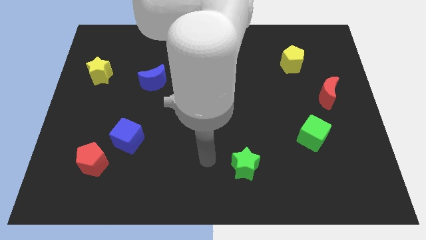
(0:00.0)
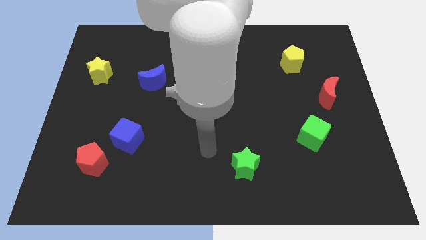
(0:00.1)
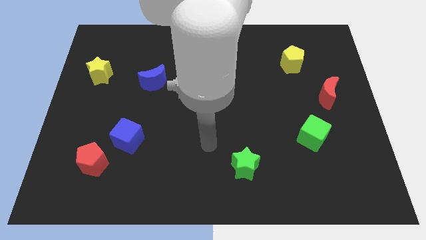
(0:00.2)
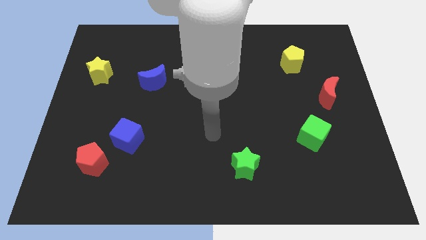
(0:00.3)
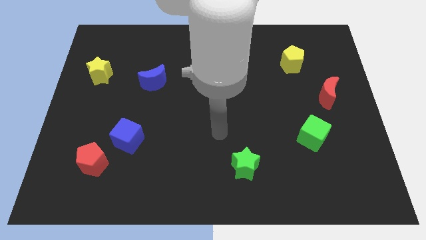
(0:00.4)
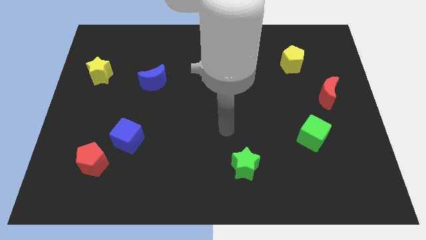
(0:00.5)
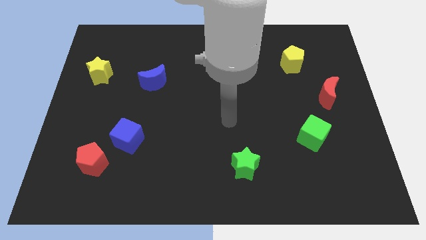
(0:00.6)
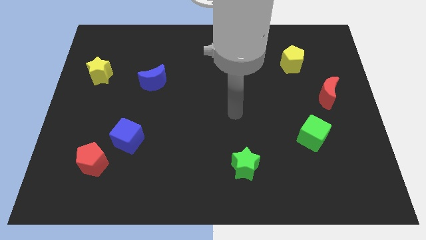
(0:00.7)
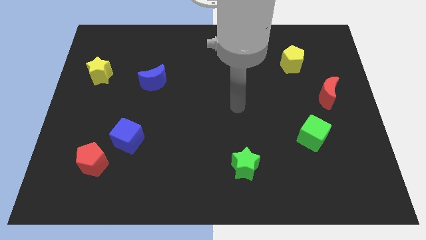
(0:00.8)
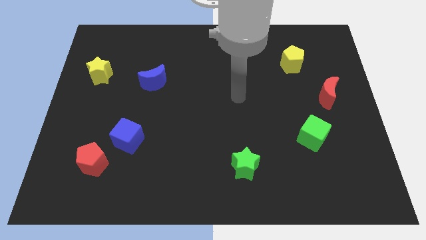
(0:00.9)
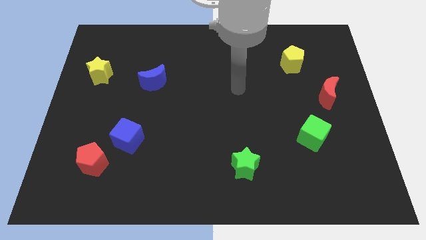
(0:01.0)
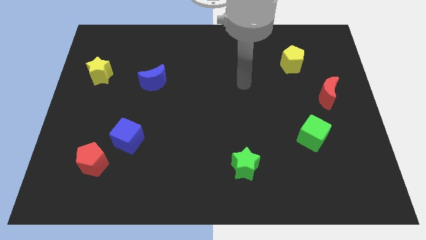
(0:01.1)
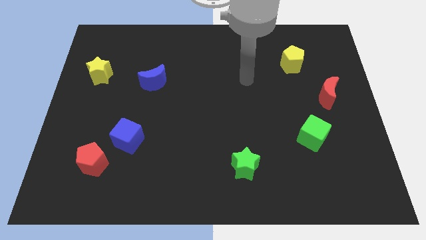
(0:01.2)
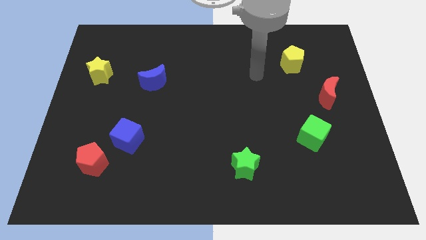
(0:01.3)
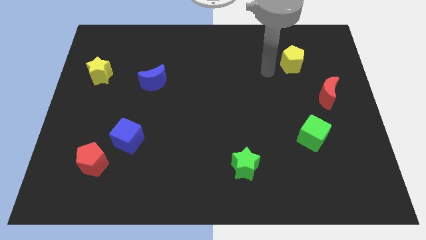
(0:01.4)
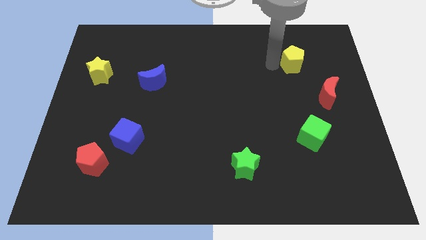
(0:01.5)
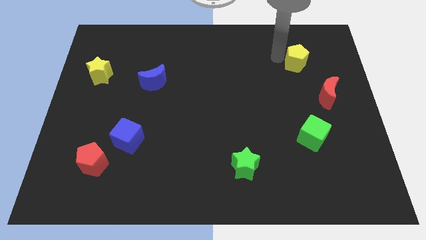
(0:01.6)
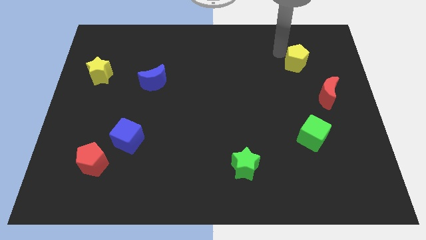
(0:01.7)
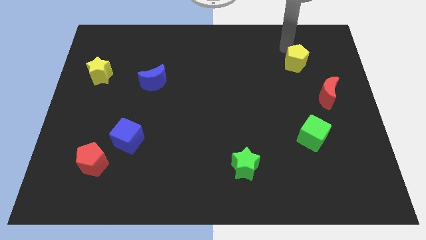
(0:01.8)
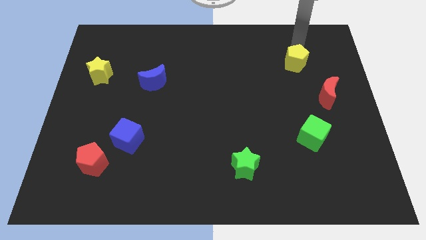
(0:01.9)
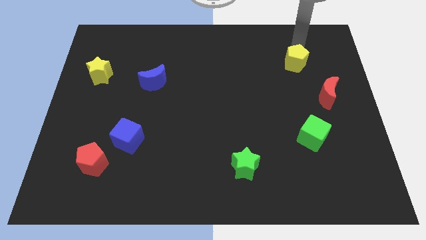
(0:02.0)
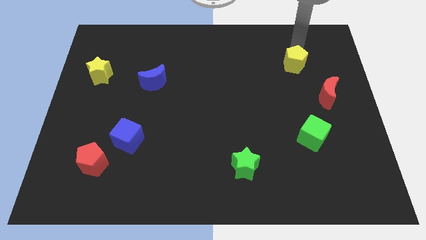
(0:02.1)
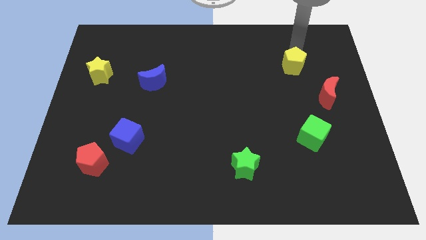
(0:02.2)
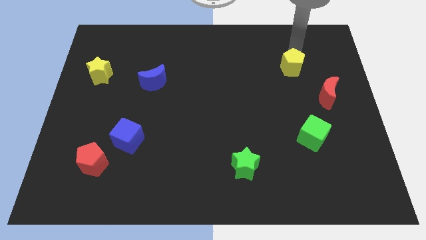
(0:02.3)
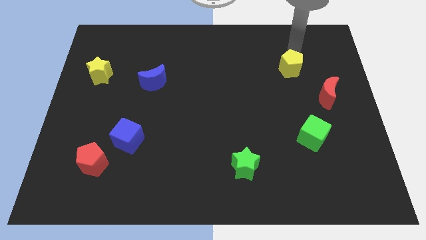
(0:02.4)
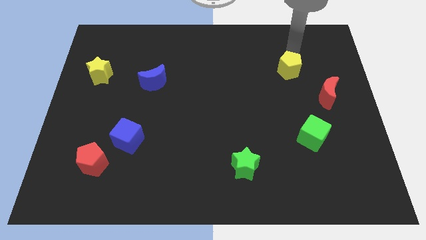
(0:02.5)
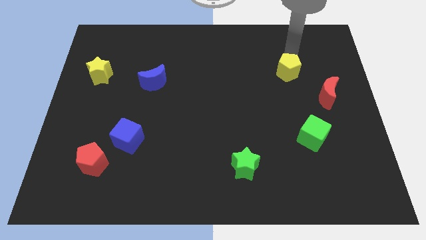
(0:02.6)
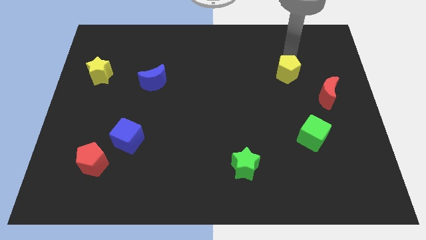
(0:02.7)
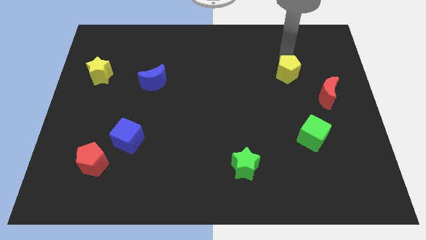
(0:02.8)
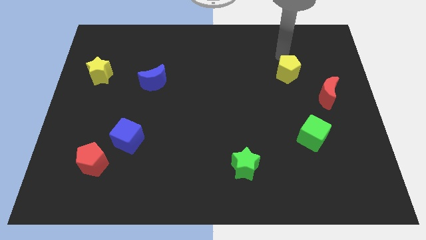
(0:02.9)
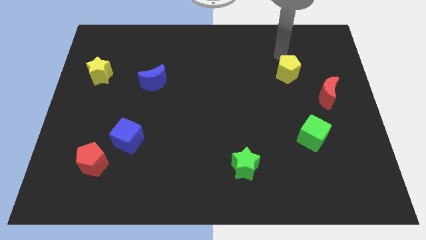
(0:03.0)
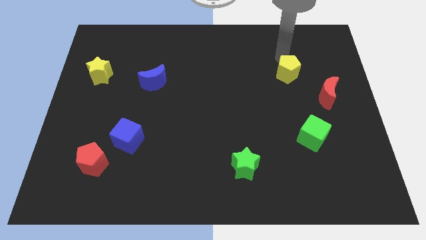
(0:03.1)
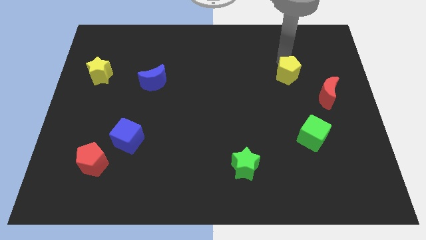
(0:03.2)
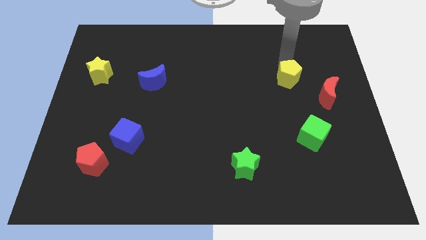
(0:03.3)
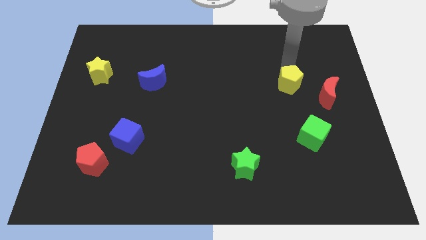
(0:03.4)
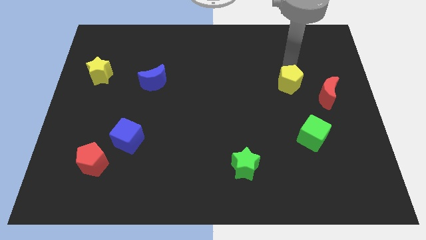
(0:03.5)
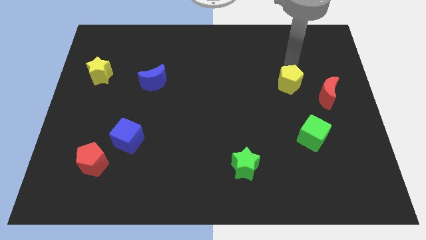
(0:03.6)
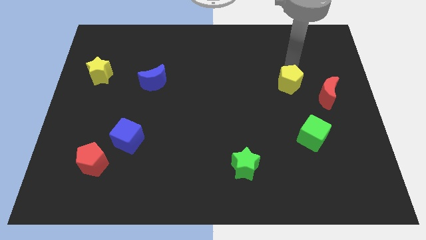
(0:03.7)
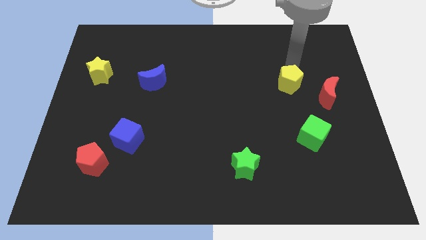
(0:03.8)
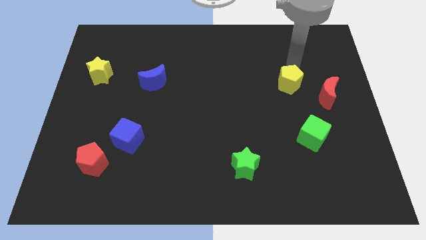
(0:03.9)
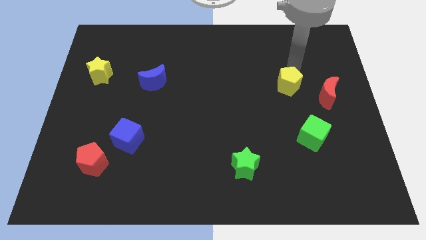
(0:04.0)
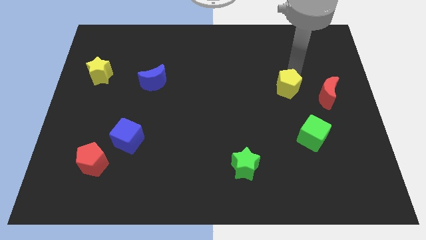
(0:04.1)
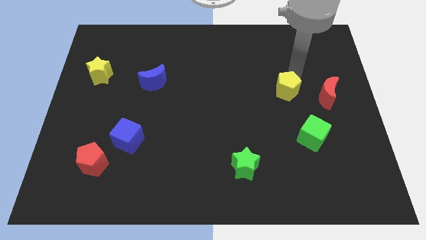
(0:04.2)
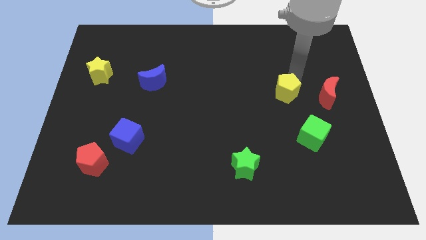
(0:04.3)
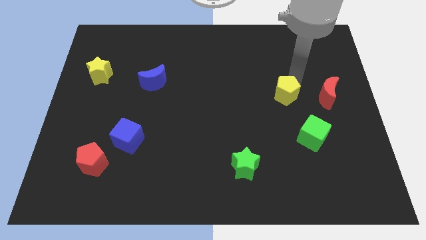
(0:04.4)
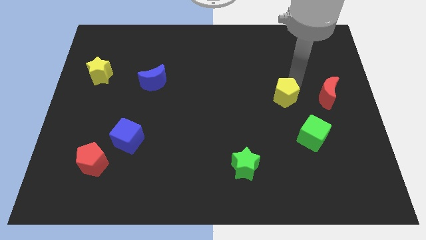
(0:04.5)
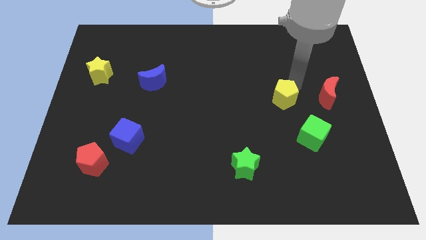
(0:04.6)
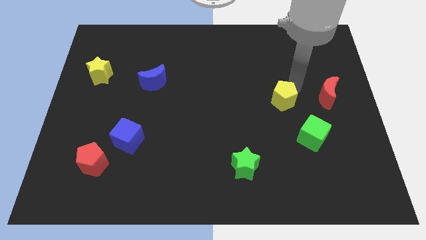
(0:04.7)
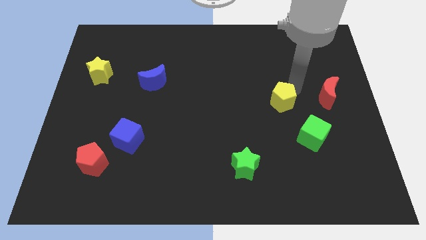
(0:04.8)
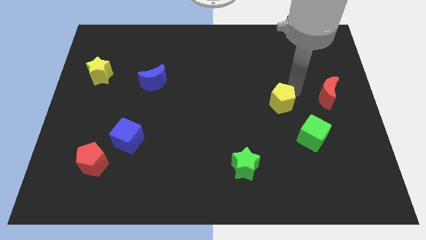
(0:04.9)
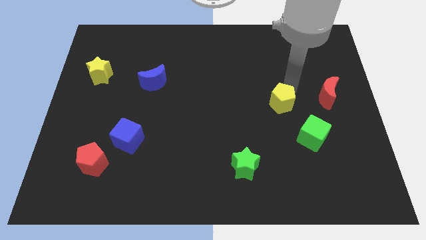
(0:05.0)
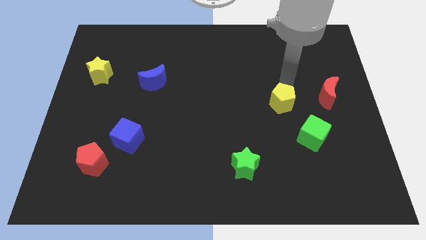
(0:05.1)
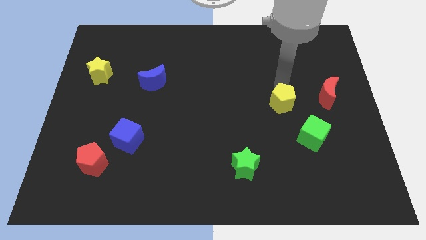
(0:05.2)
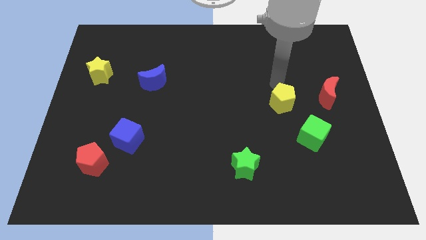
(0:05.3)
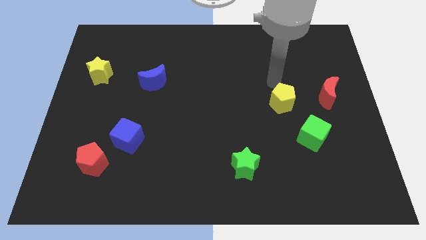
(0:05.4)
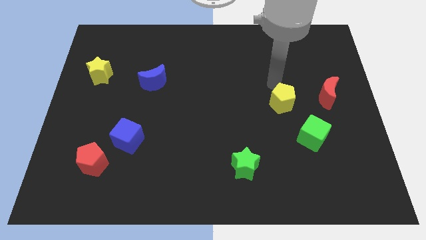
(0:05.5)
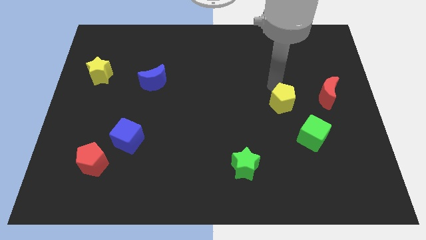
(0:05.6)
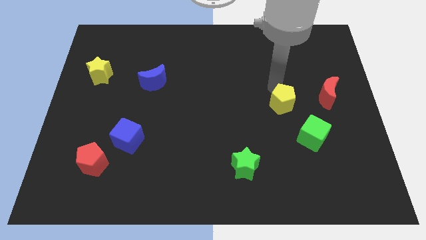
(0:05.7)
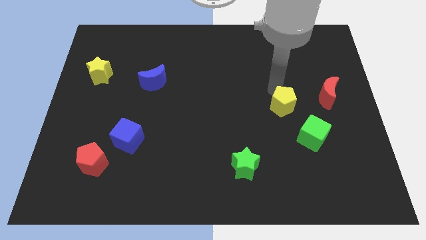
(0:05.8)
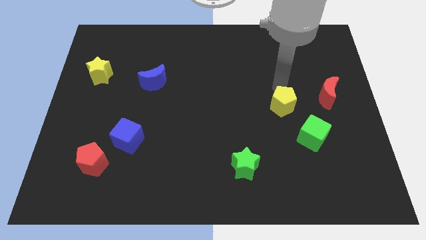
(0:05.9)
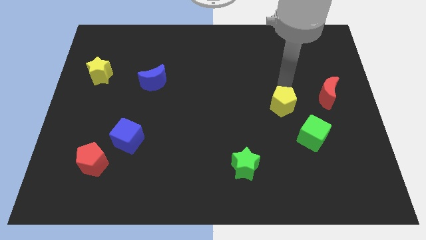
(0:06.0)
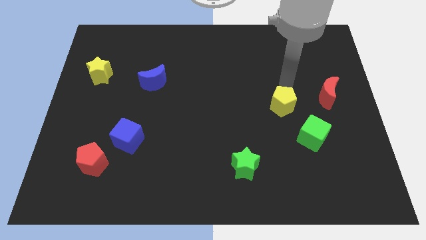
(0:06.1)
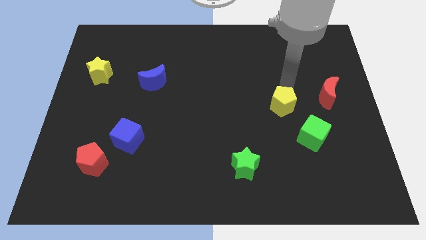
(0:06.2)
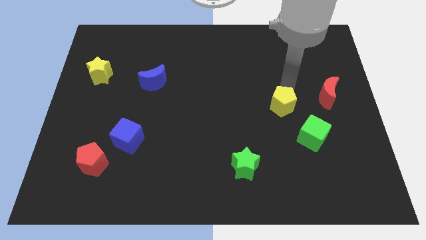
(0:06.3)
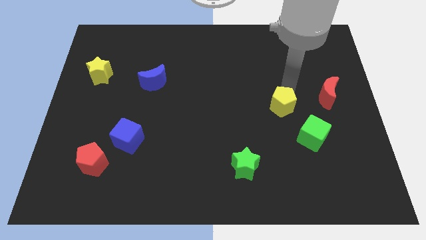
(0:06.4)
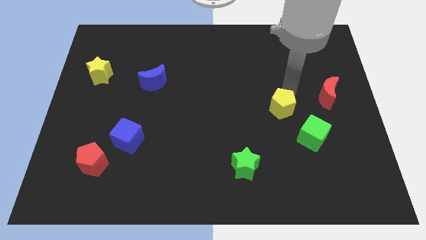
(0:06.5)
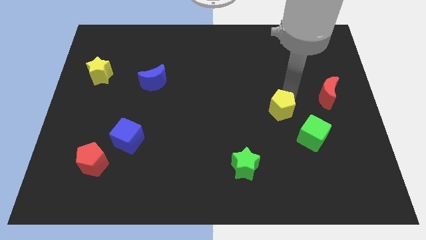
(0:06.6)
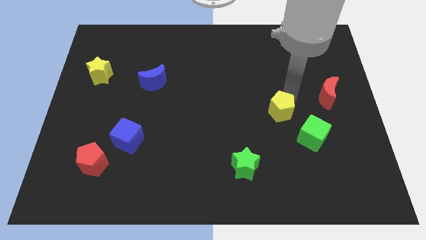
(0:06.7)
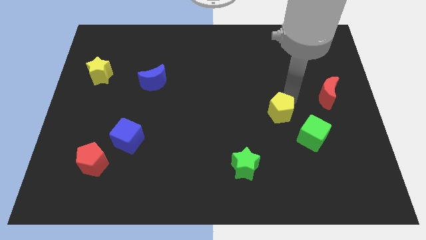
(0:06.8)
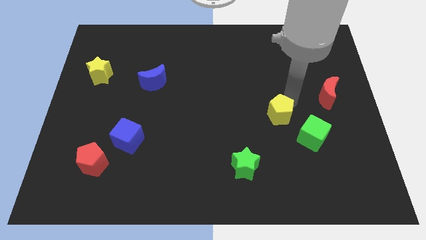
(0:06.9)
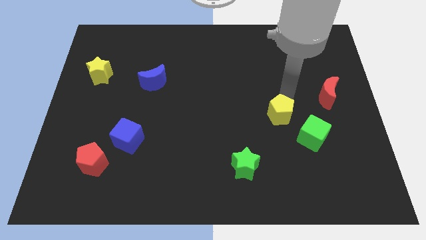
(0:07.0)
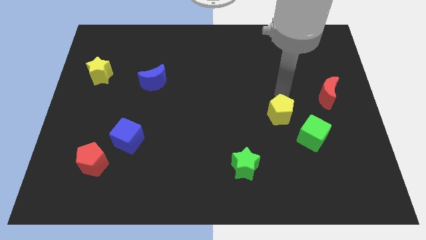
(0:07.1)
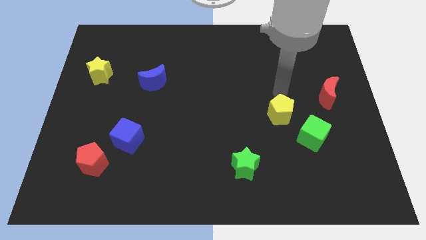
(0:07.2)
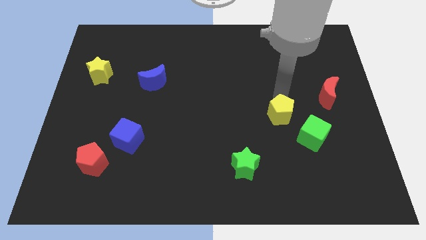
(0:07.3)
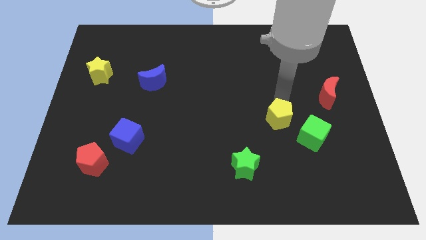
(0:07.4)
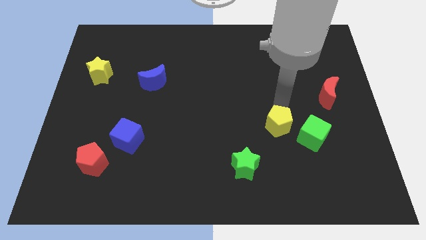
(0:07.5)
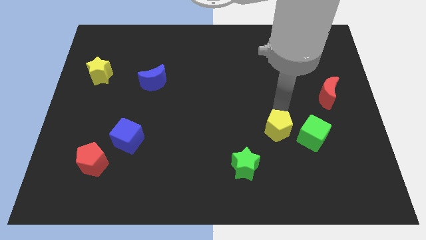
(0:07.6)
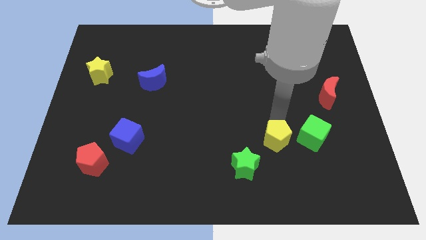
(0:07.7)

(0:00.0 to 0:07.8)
push the yellow pentagon downwards

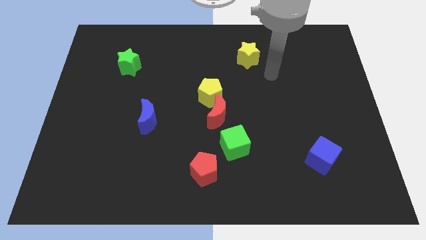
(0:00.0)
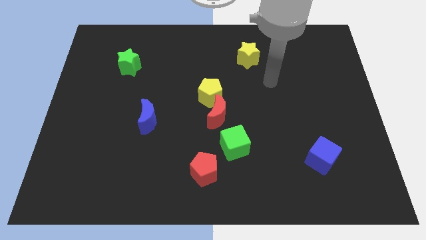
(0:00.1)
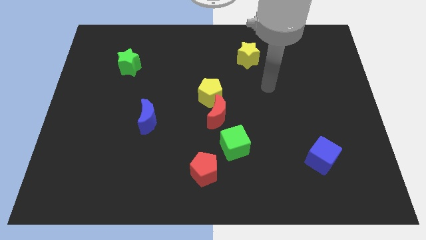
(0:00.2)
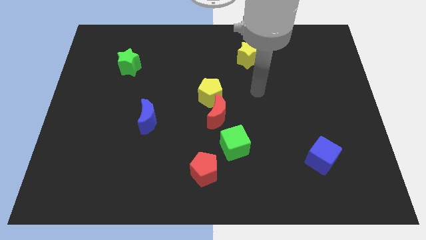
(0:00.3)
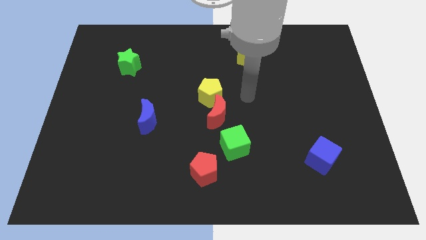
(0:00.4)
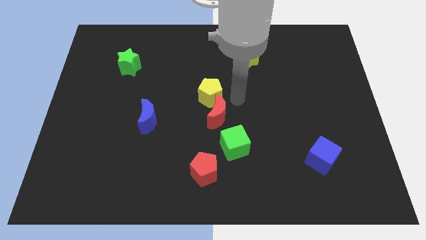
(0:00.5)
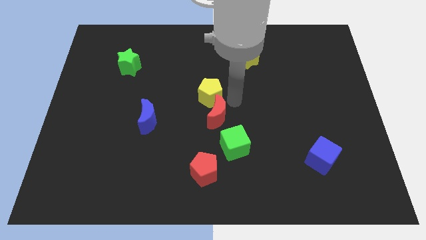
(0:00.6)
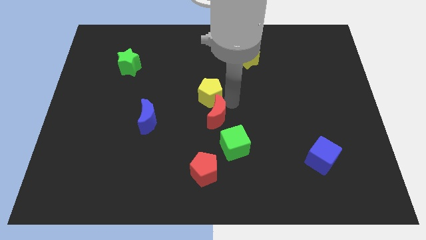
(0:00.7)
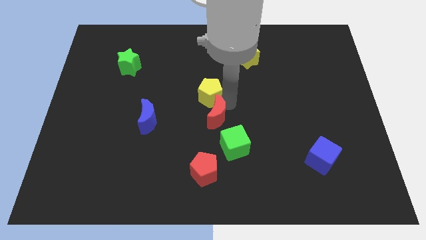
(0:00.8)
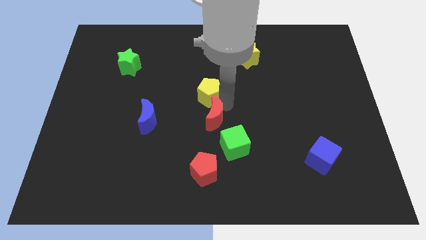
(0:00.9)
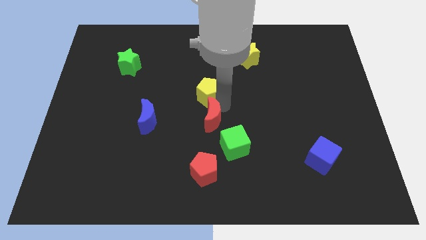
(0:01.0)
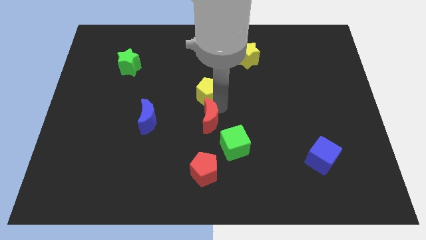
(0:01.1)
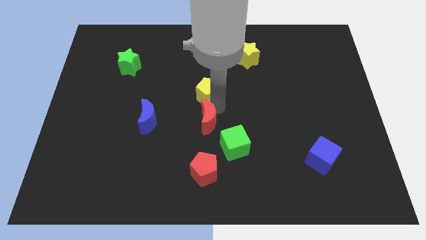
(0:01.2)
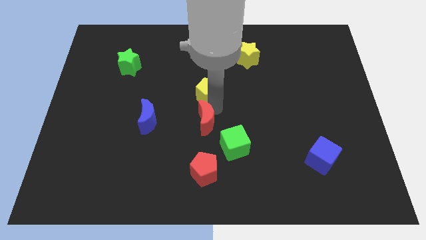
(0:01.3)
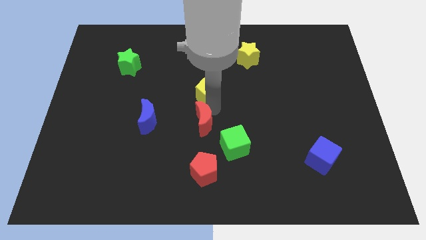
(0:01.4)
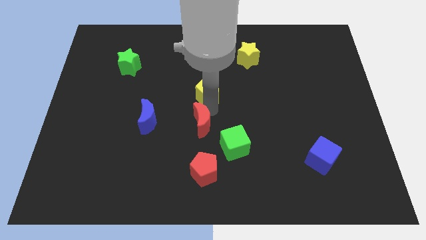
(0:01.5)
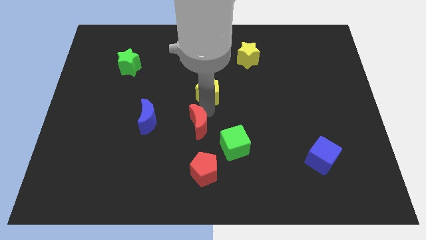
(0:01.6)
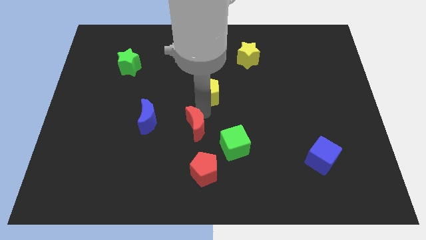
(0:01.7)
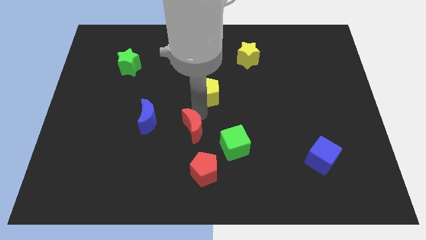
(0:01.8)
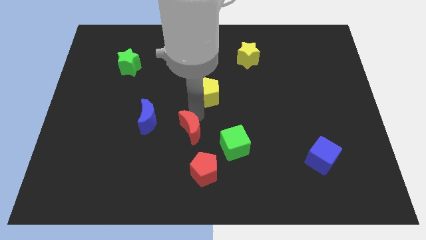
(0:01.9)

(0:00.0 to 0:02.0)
push the red moon down and to the left a little bit
